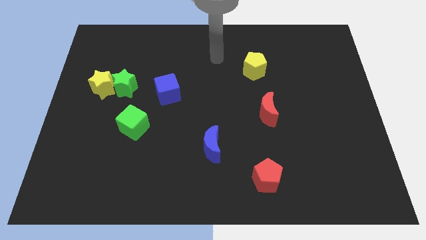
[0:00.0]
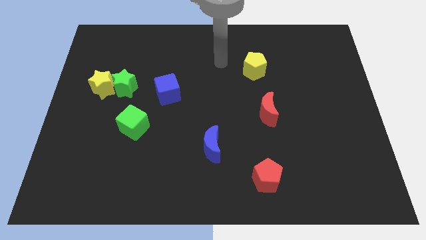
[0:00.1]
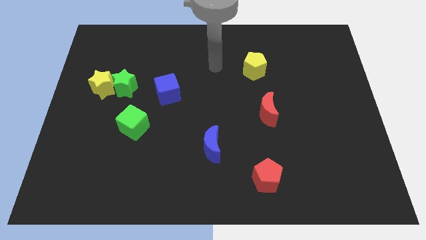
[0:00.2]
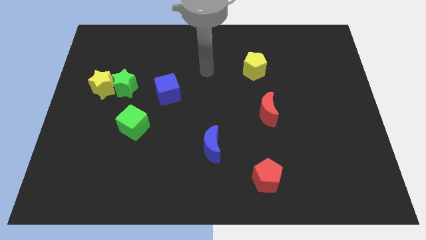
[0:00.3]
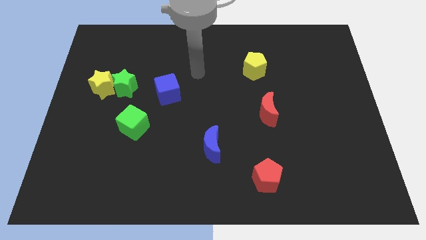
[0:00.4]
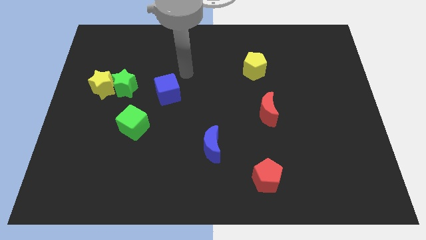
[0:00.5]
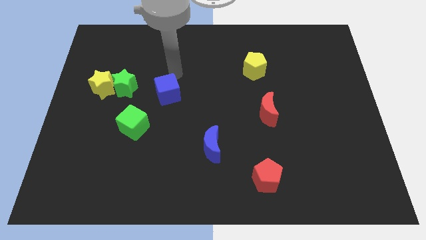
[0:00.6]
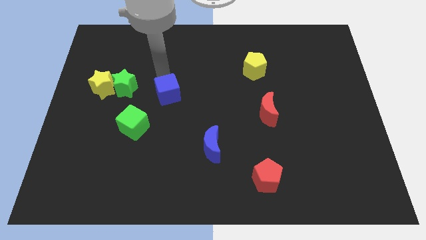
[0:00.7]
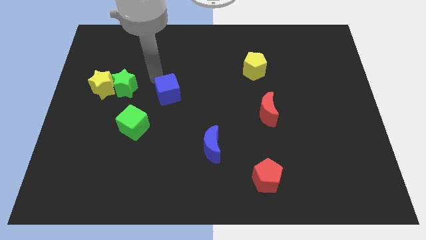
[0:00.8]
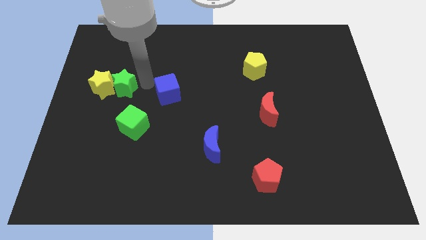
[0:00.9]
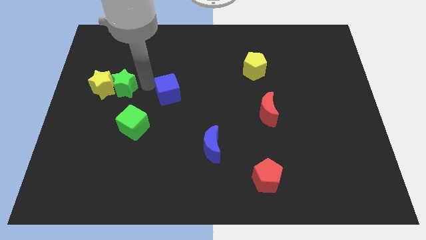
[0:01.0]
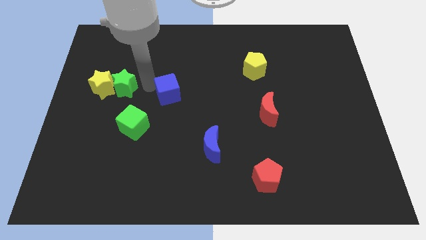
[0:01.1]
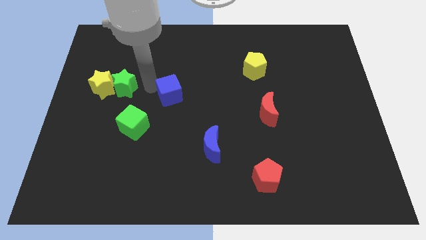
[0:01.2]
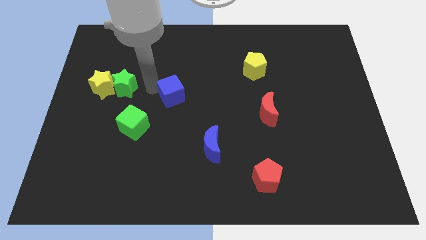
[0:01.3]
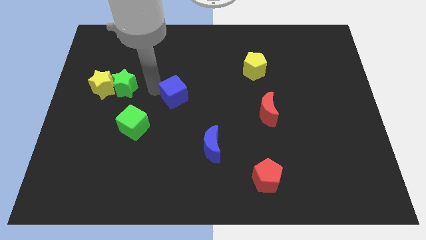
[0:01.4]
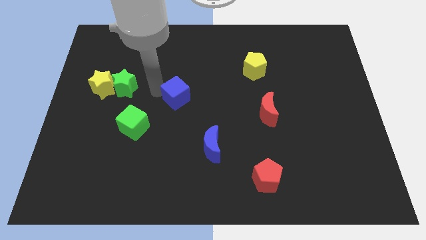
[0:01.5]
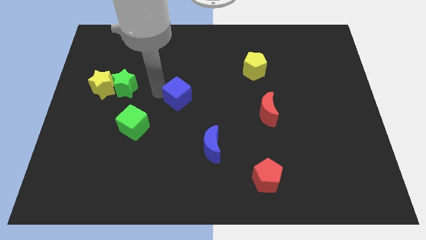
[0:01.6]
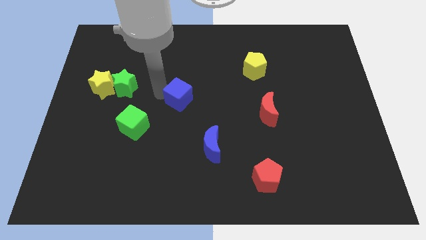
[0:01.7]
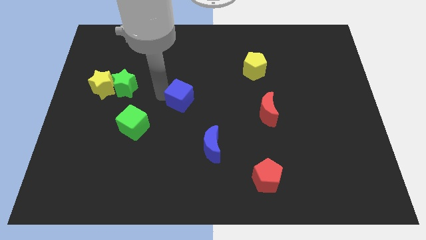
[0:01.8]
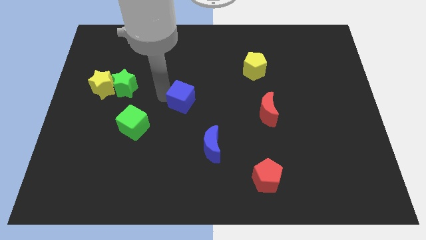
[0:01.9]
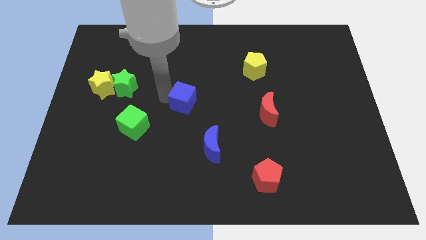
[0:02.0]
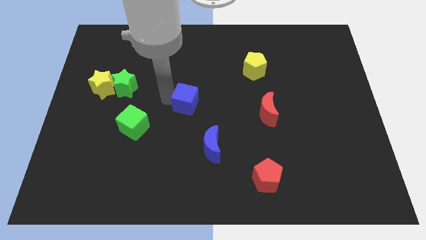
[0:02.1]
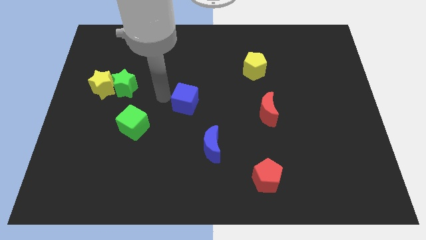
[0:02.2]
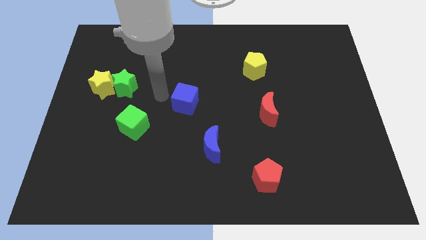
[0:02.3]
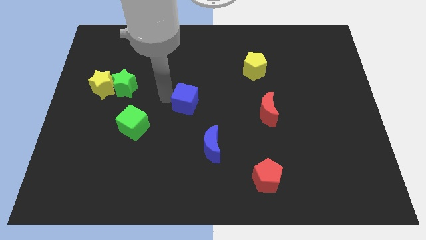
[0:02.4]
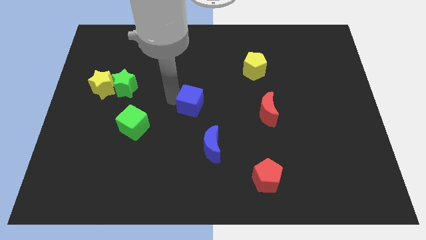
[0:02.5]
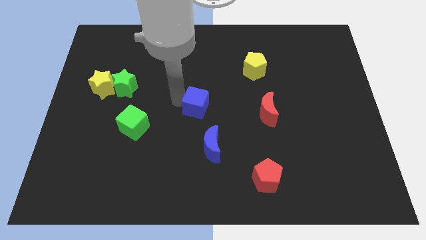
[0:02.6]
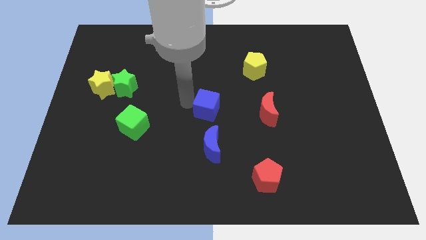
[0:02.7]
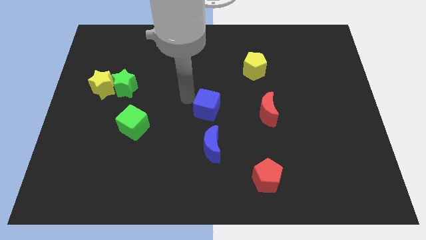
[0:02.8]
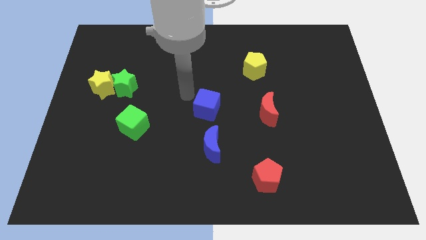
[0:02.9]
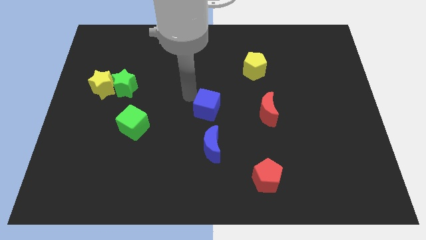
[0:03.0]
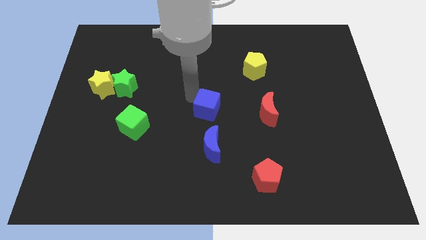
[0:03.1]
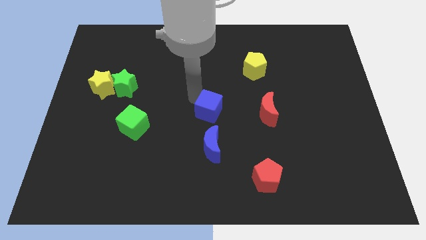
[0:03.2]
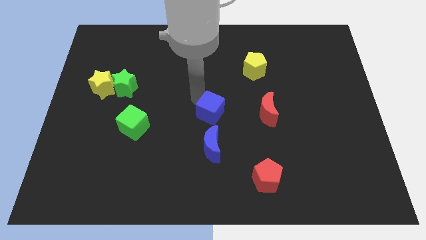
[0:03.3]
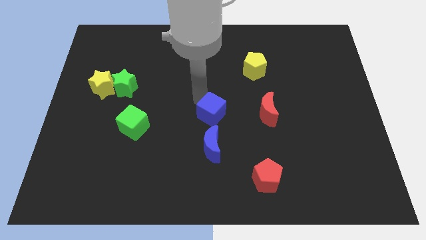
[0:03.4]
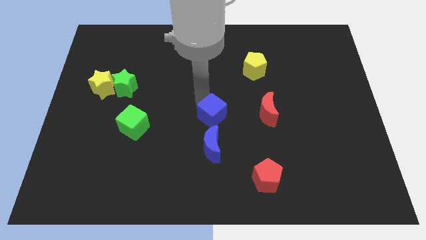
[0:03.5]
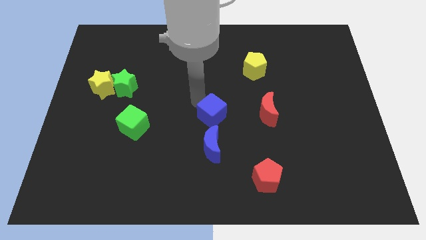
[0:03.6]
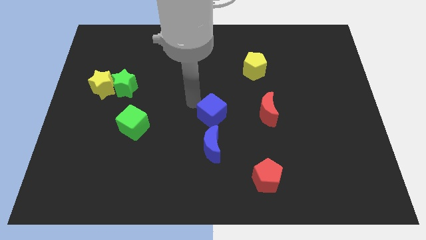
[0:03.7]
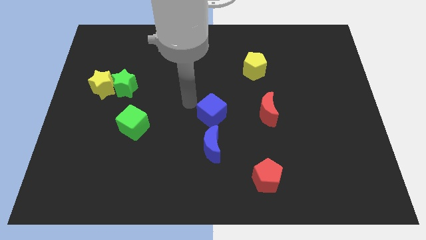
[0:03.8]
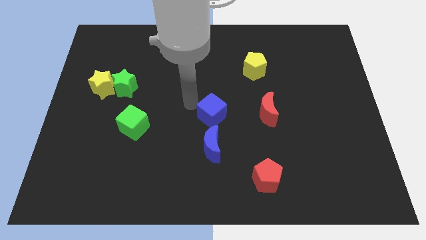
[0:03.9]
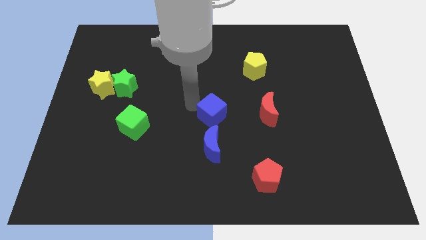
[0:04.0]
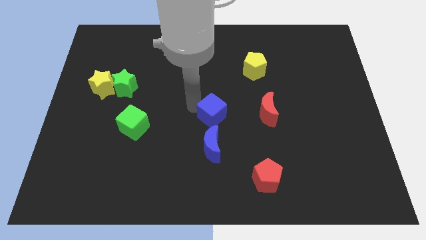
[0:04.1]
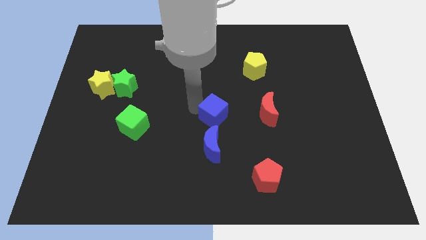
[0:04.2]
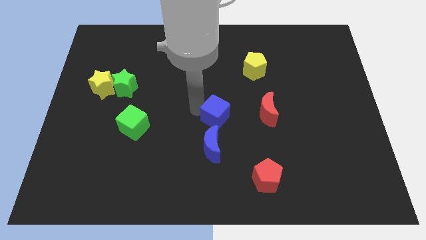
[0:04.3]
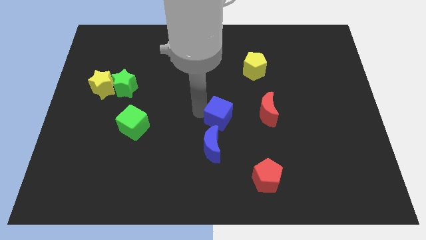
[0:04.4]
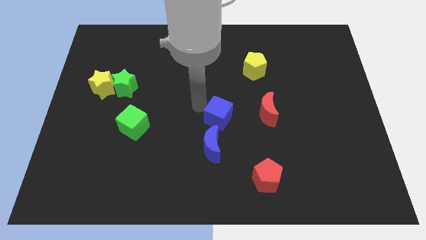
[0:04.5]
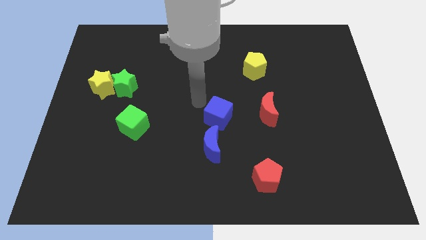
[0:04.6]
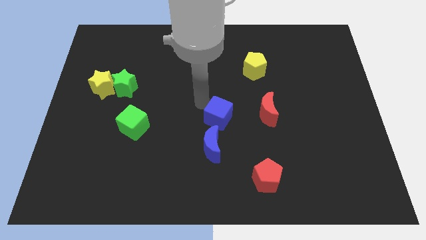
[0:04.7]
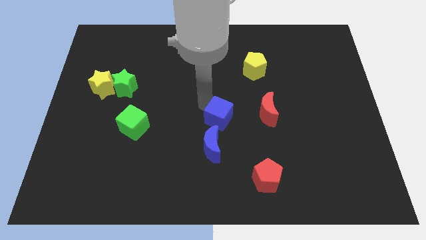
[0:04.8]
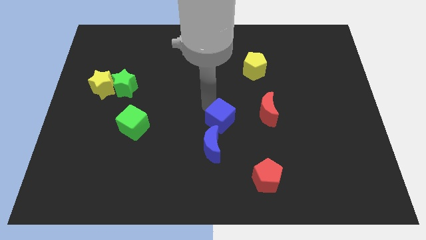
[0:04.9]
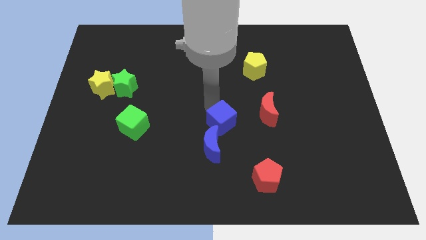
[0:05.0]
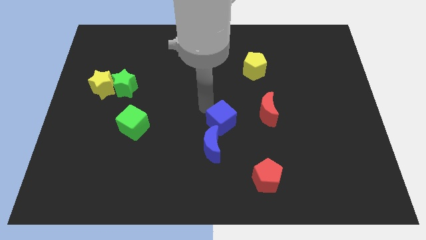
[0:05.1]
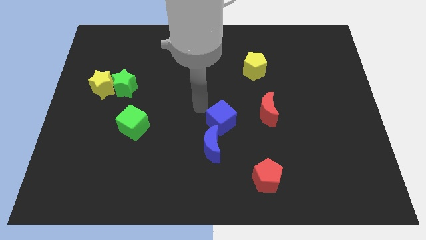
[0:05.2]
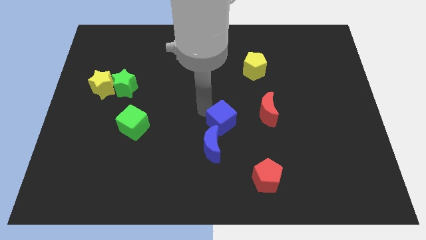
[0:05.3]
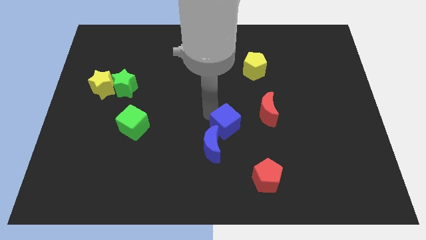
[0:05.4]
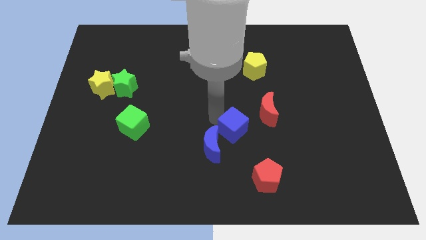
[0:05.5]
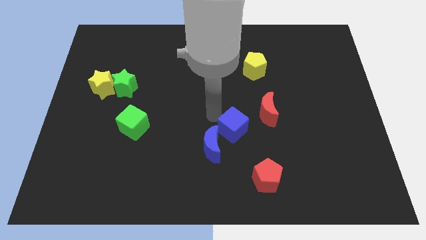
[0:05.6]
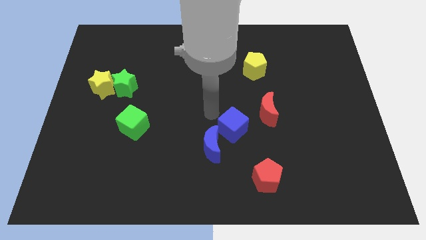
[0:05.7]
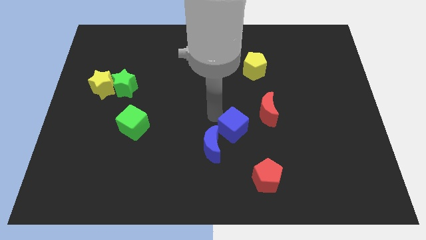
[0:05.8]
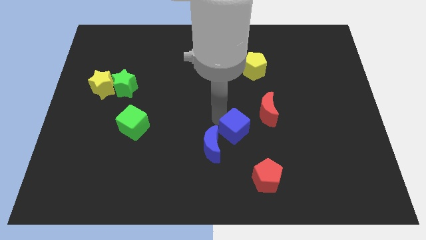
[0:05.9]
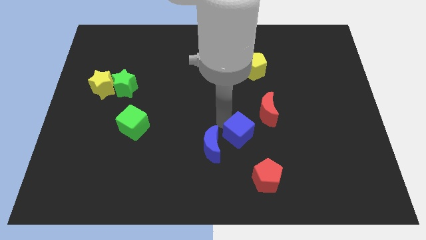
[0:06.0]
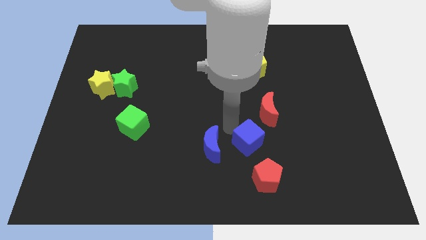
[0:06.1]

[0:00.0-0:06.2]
put the blue cube to the bottom of the red moon

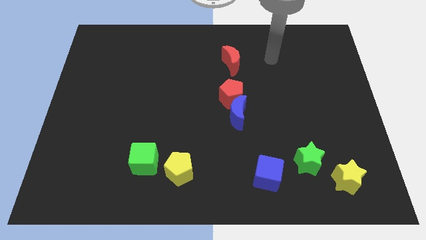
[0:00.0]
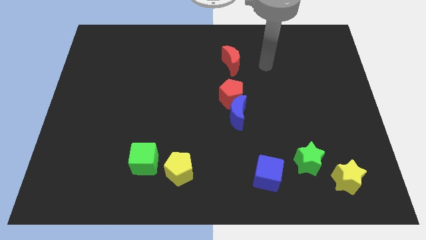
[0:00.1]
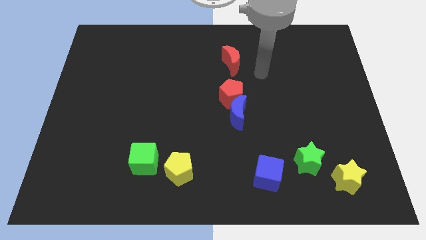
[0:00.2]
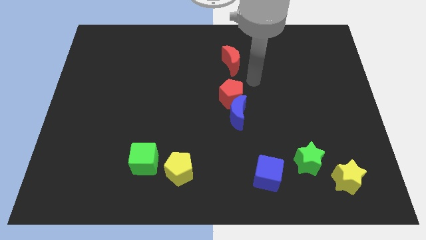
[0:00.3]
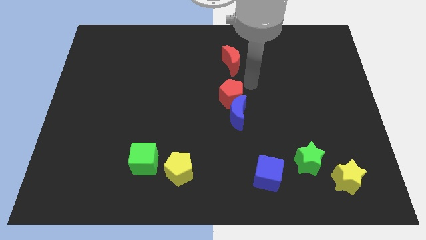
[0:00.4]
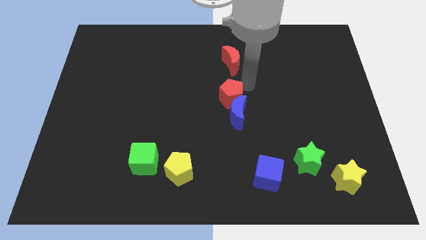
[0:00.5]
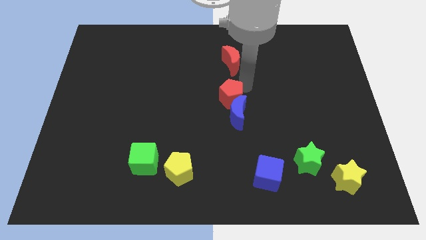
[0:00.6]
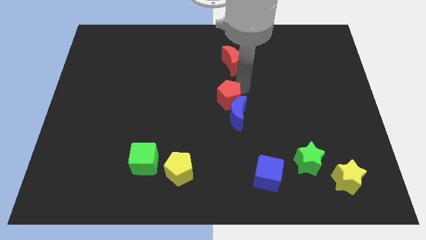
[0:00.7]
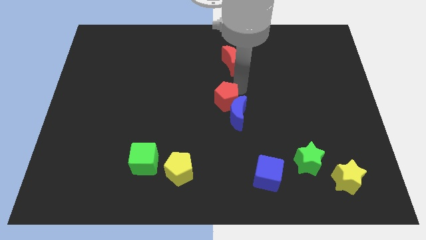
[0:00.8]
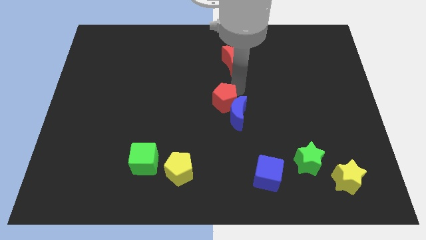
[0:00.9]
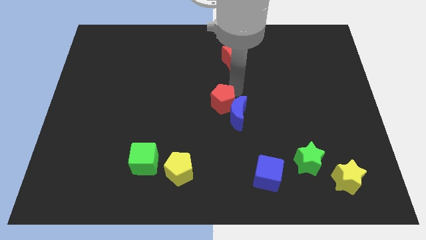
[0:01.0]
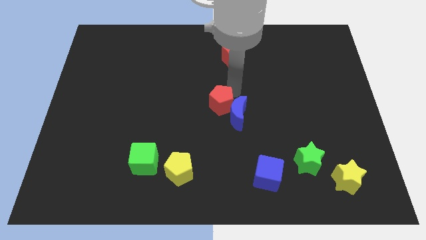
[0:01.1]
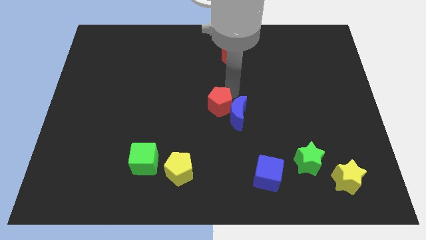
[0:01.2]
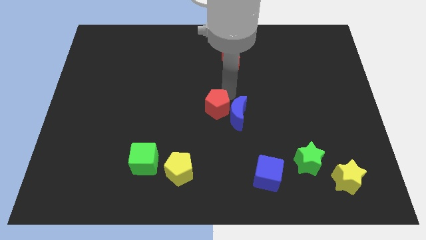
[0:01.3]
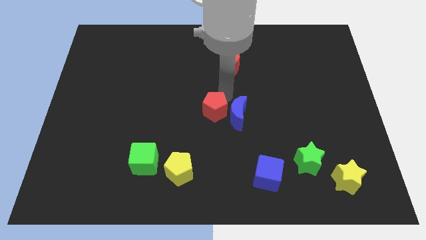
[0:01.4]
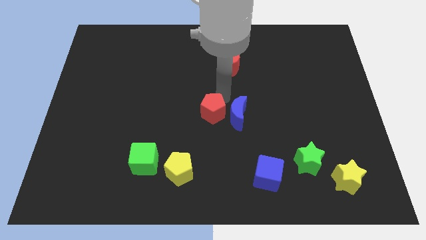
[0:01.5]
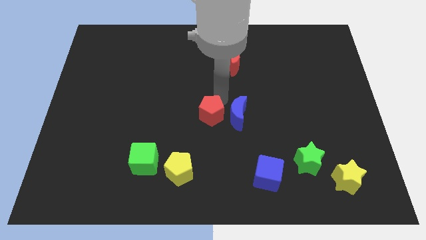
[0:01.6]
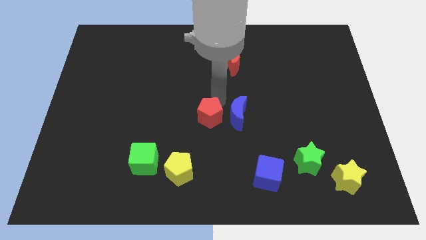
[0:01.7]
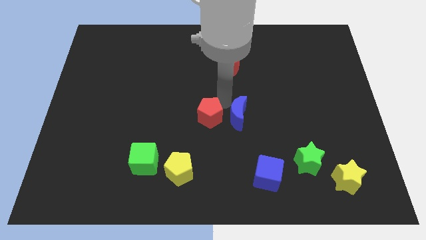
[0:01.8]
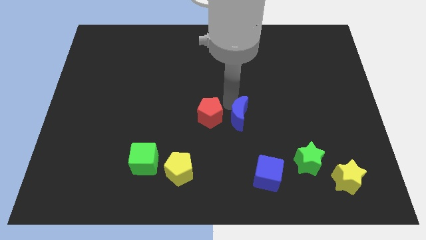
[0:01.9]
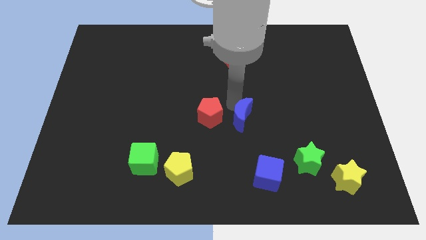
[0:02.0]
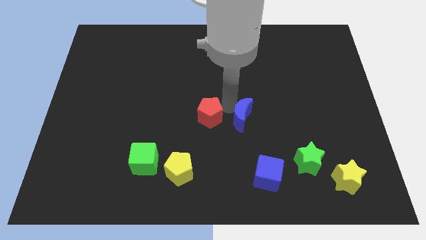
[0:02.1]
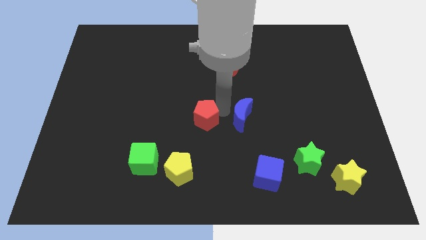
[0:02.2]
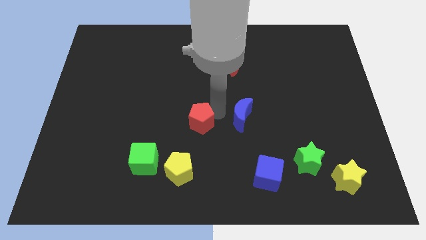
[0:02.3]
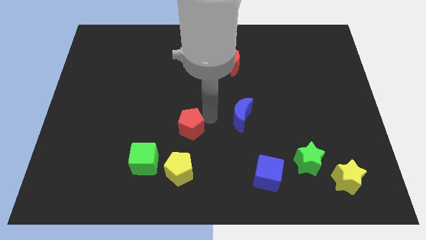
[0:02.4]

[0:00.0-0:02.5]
slide the red pentagon to the top right of the green cube
